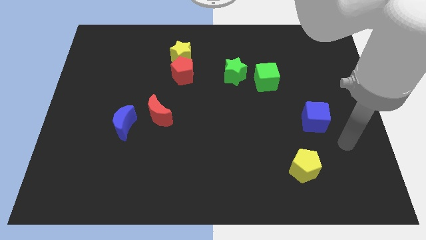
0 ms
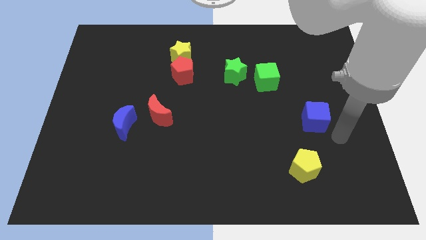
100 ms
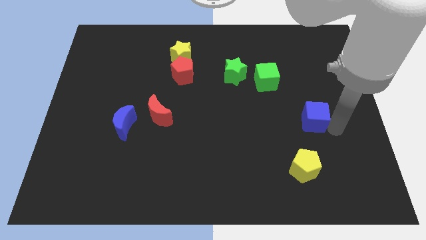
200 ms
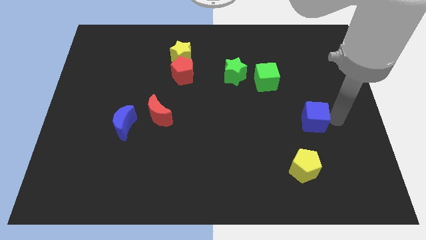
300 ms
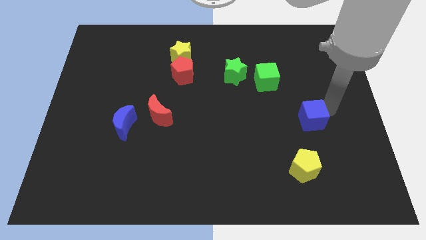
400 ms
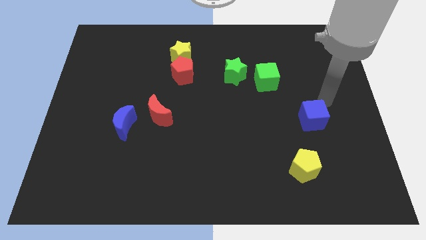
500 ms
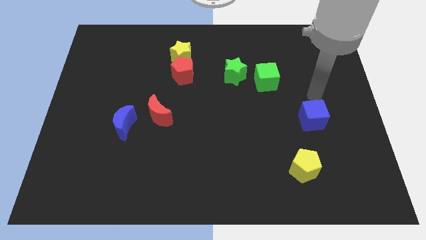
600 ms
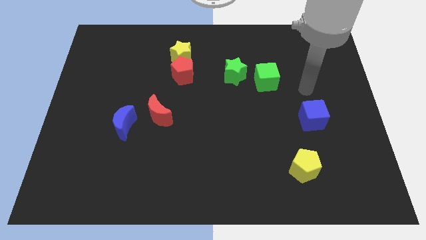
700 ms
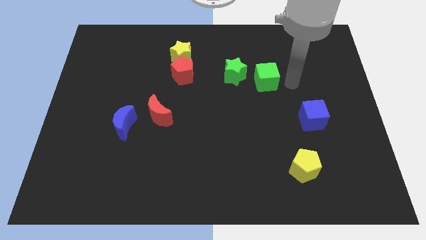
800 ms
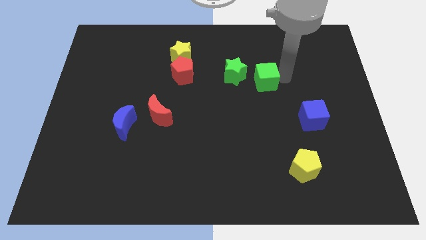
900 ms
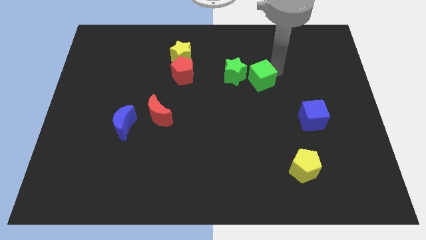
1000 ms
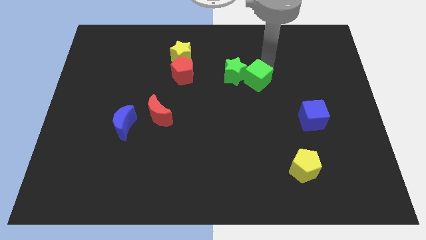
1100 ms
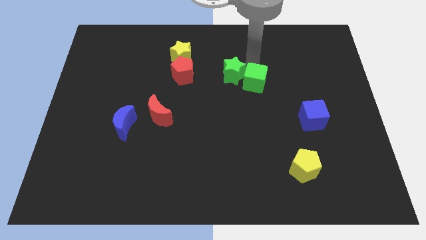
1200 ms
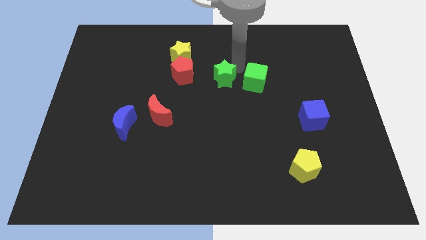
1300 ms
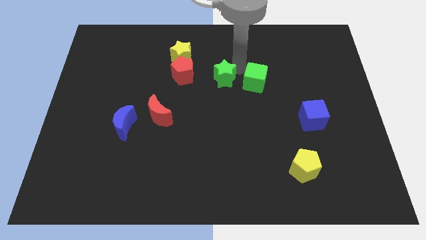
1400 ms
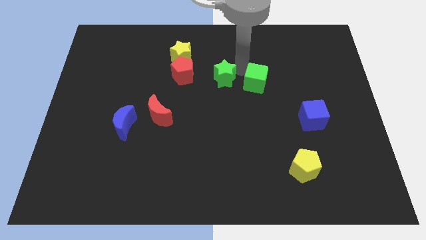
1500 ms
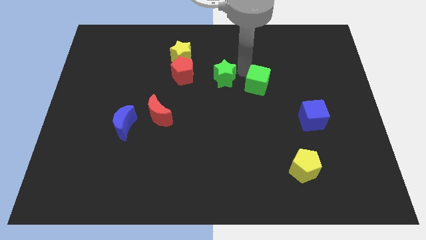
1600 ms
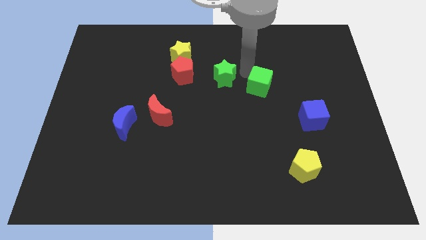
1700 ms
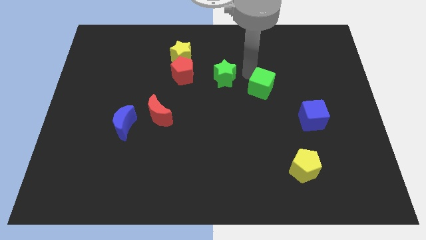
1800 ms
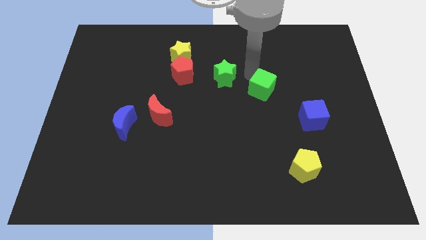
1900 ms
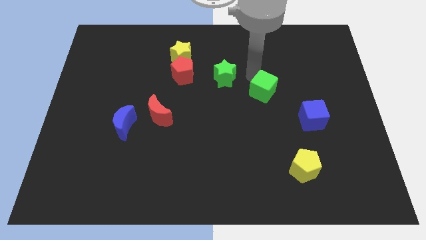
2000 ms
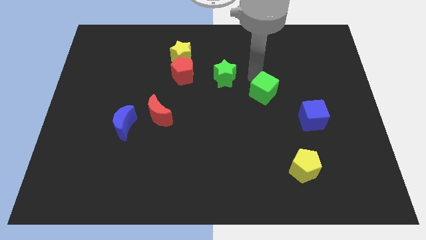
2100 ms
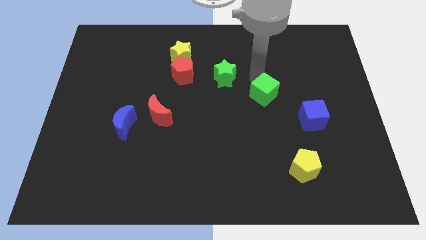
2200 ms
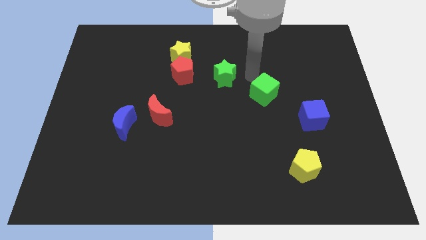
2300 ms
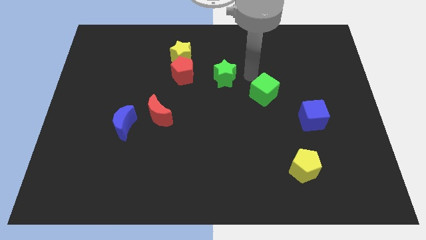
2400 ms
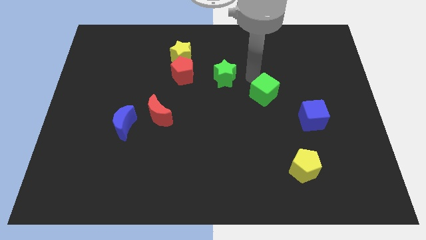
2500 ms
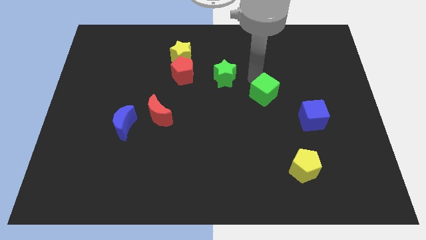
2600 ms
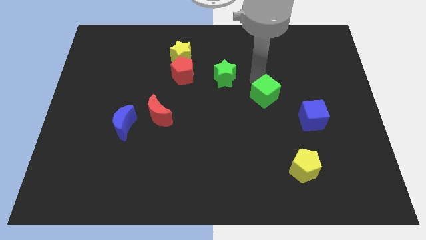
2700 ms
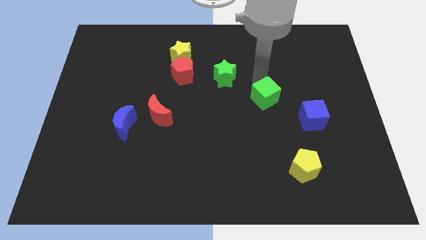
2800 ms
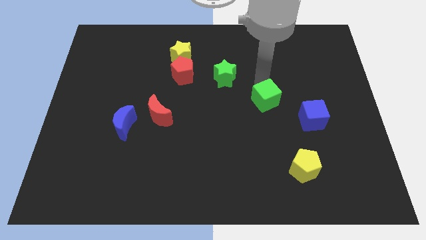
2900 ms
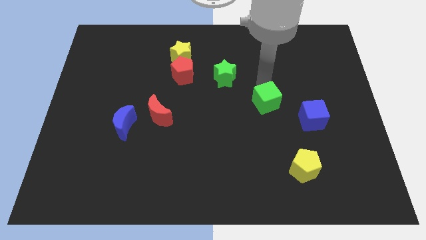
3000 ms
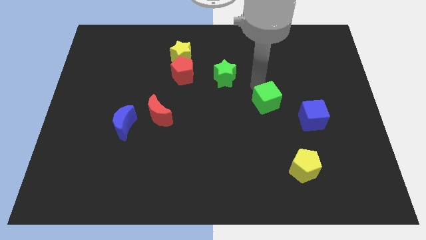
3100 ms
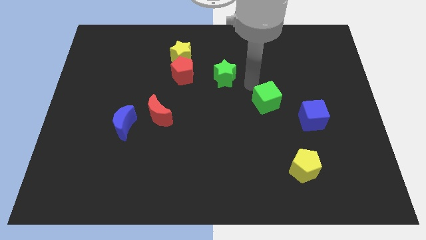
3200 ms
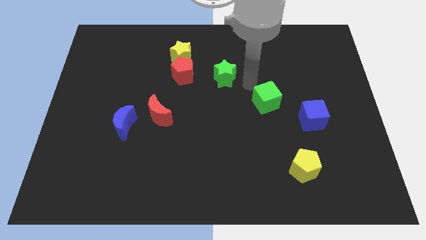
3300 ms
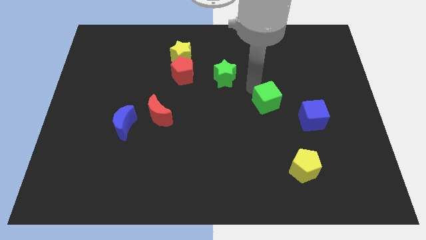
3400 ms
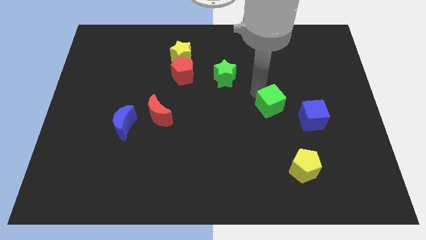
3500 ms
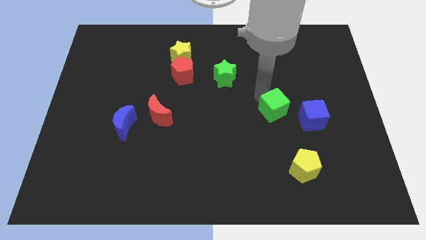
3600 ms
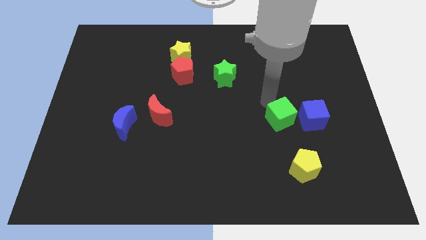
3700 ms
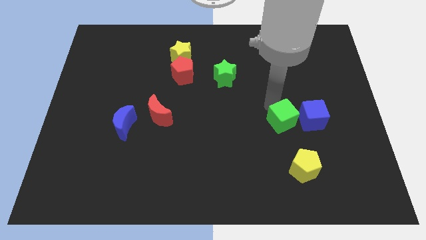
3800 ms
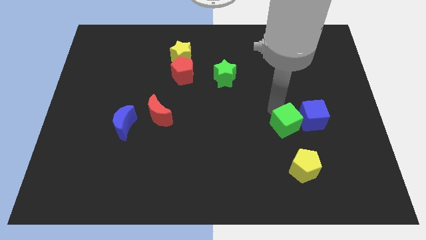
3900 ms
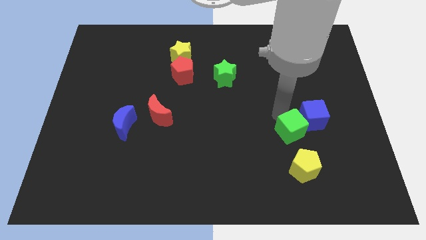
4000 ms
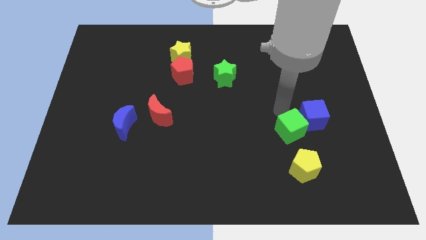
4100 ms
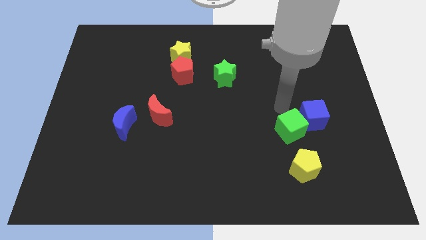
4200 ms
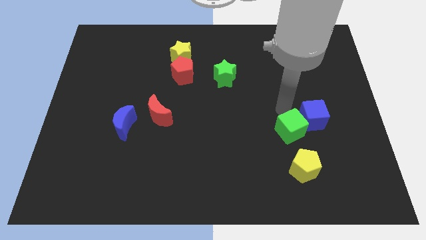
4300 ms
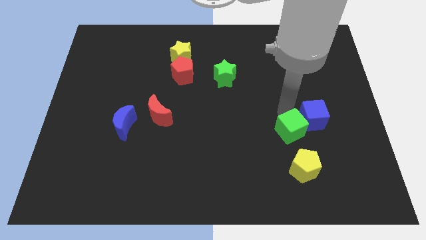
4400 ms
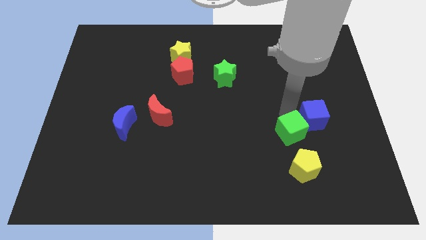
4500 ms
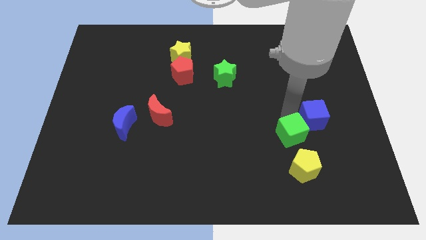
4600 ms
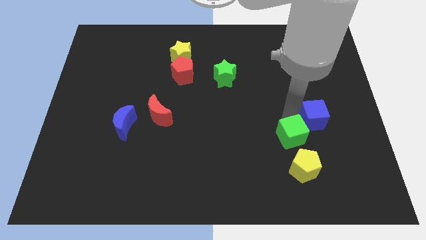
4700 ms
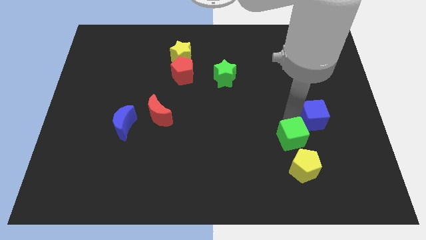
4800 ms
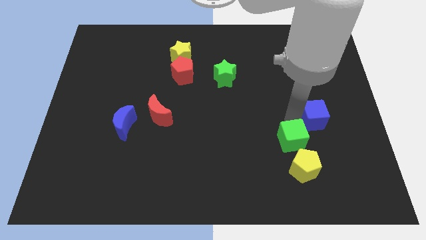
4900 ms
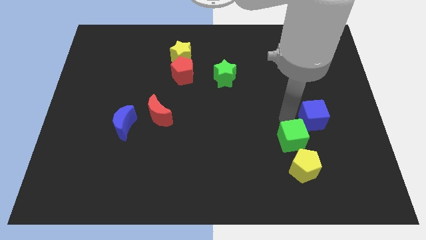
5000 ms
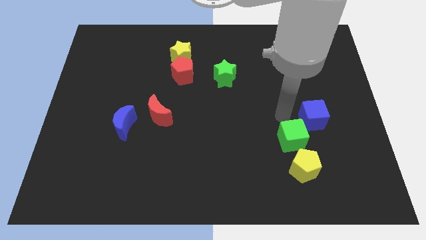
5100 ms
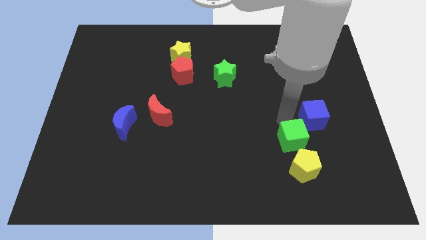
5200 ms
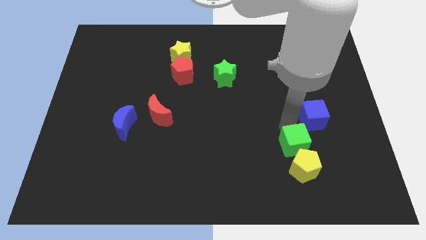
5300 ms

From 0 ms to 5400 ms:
slide the green cube next to the yellow pentagon

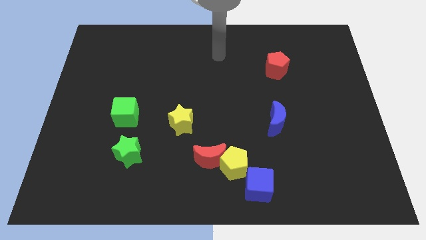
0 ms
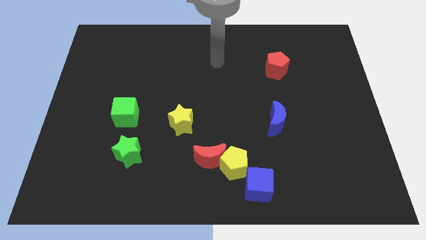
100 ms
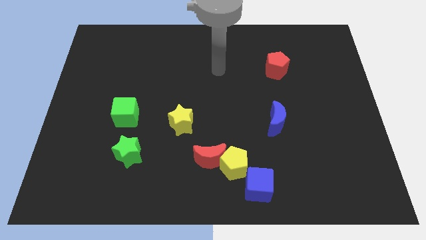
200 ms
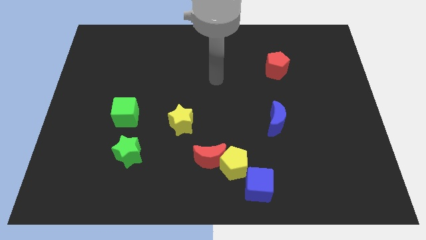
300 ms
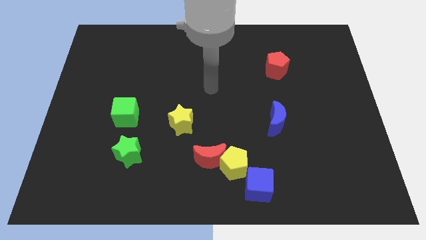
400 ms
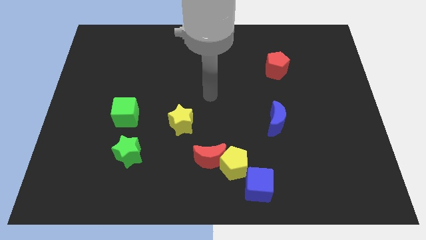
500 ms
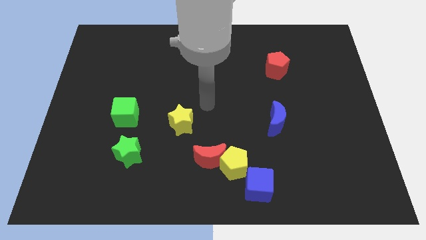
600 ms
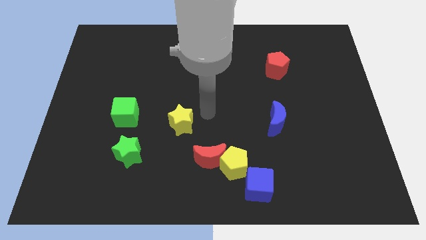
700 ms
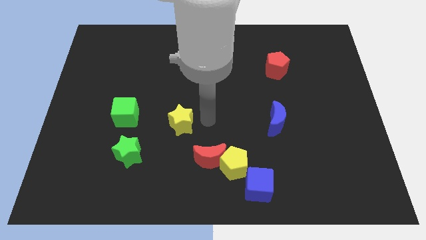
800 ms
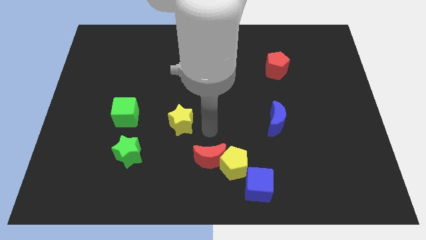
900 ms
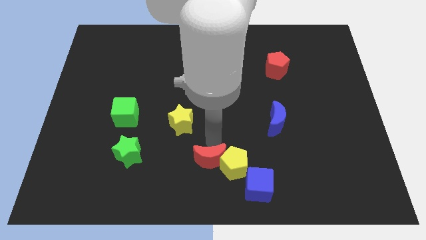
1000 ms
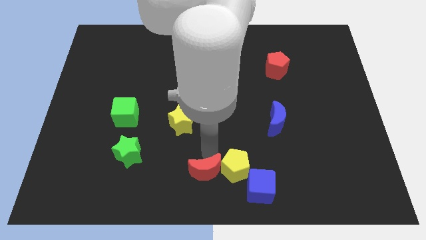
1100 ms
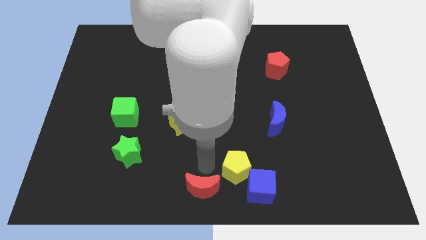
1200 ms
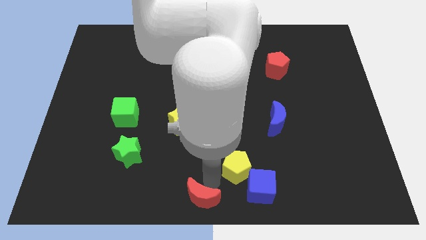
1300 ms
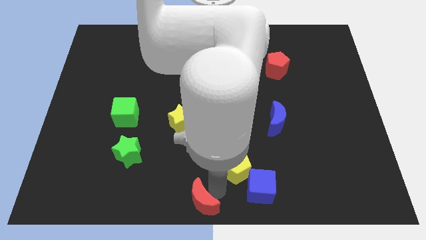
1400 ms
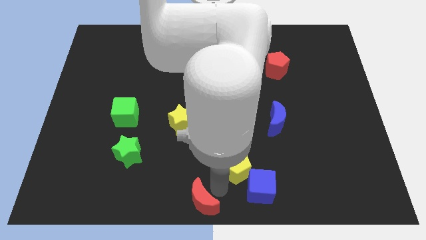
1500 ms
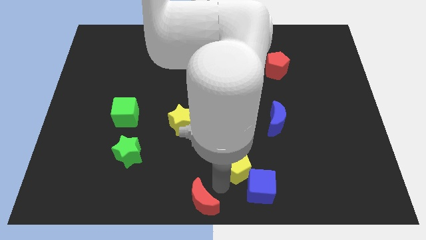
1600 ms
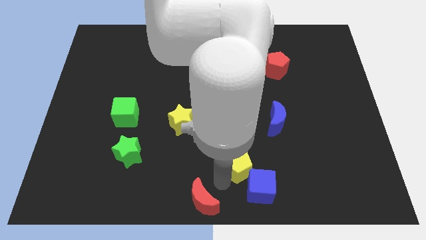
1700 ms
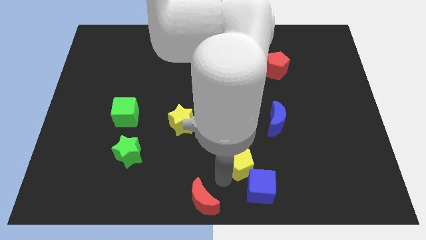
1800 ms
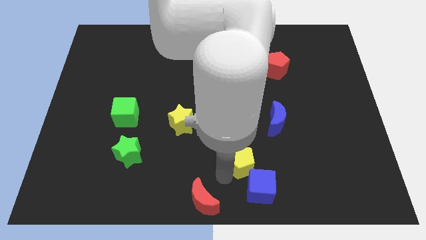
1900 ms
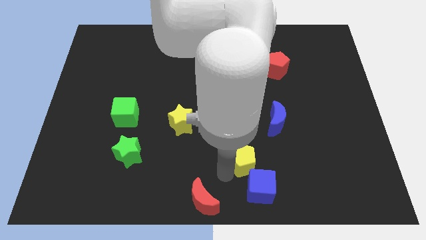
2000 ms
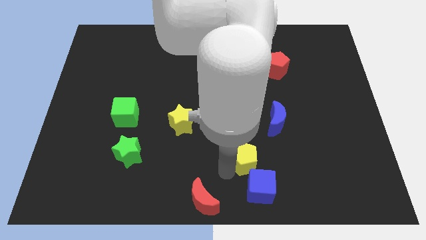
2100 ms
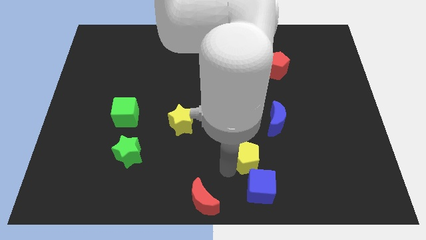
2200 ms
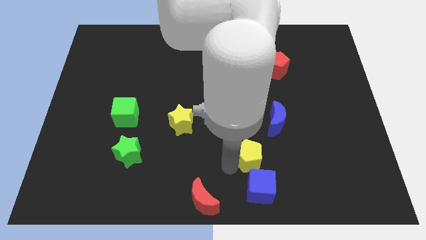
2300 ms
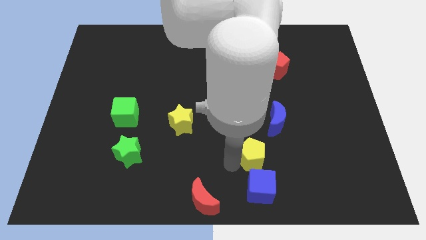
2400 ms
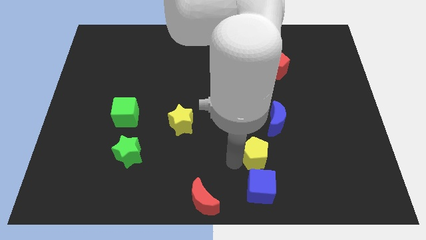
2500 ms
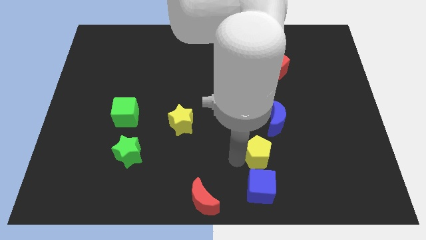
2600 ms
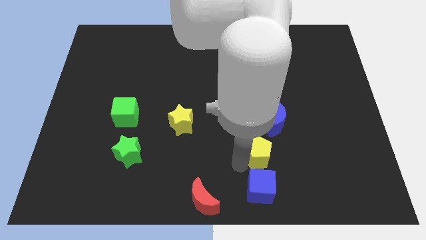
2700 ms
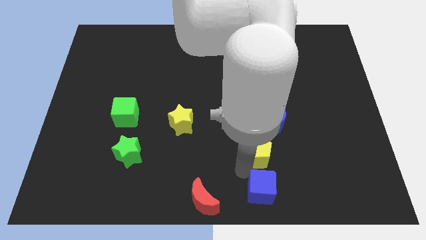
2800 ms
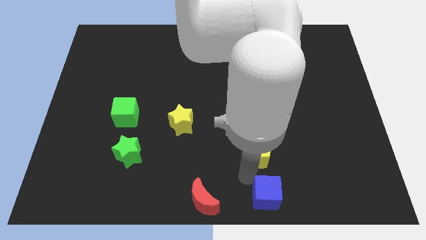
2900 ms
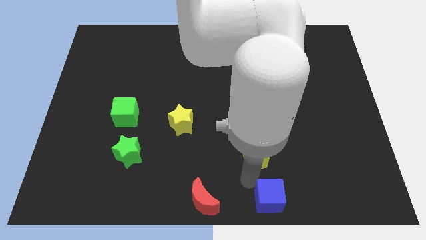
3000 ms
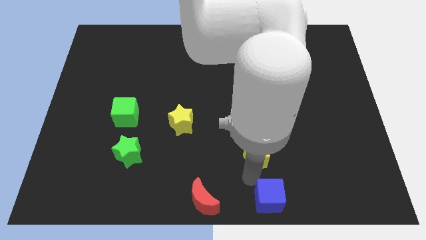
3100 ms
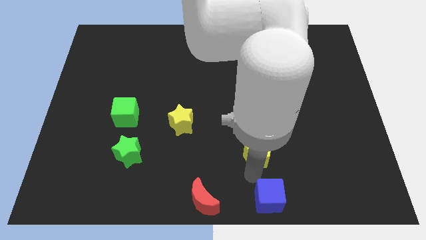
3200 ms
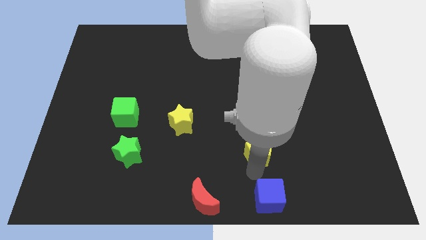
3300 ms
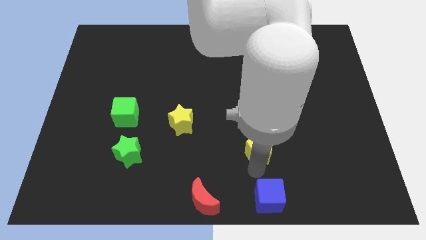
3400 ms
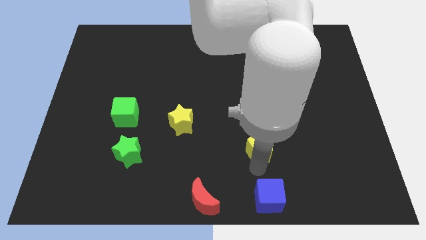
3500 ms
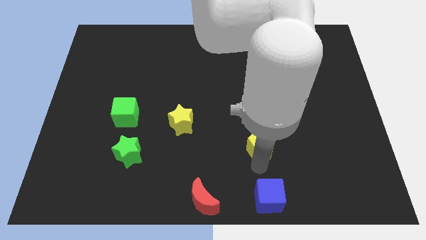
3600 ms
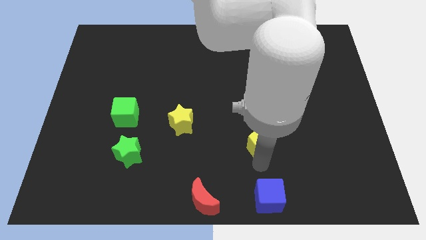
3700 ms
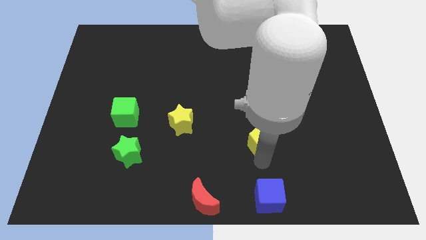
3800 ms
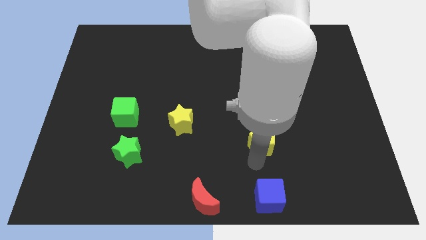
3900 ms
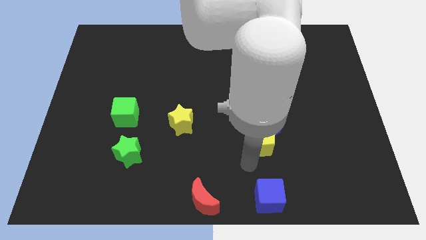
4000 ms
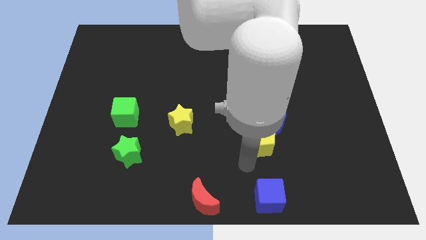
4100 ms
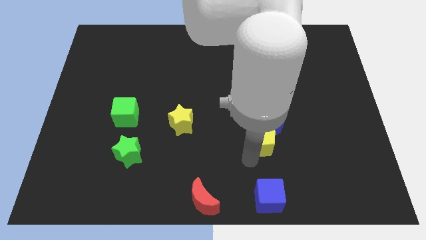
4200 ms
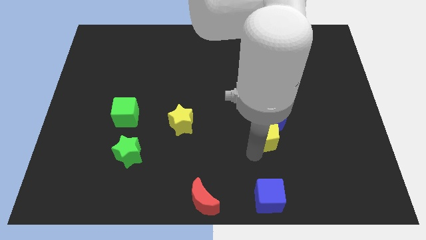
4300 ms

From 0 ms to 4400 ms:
put the yellow pentagon to the blue moon
